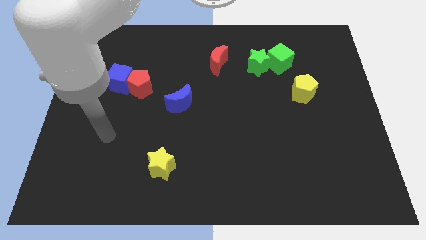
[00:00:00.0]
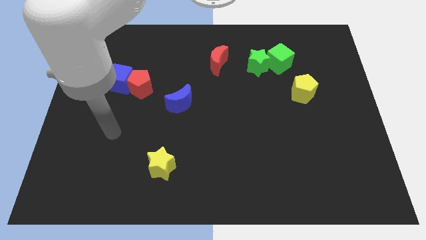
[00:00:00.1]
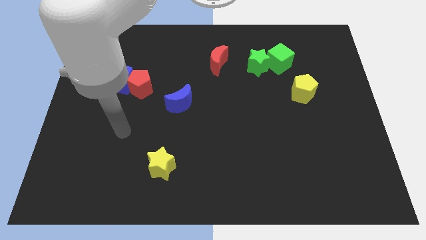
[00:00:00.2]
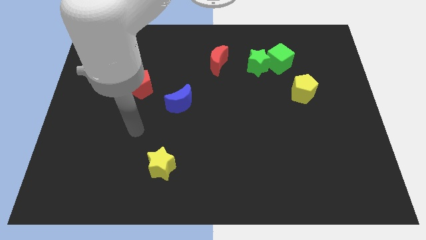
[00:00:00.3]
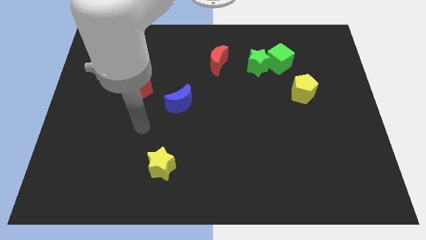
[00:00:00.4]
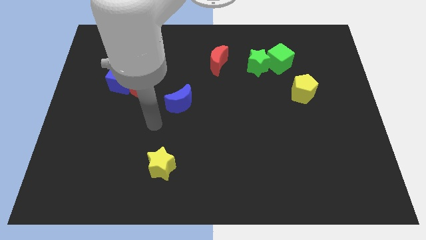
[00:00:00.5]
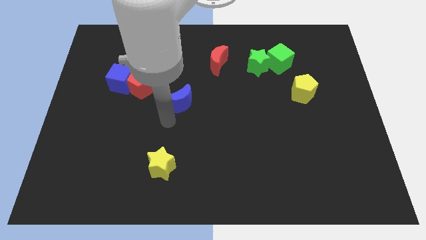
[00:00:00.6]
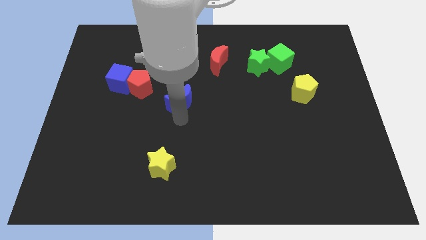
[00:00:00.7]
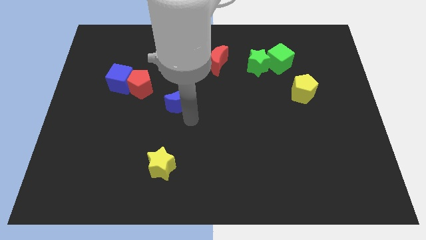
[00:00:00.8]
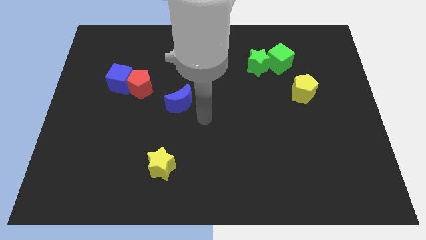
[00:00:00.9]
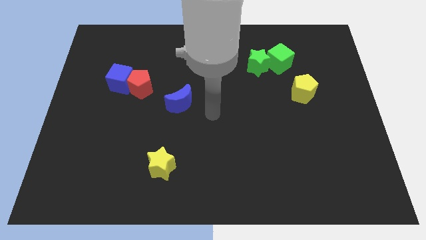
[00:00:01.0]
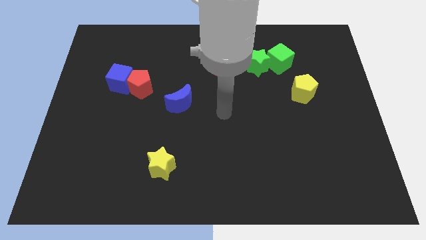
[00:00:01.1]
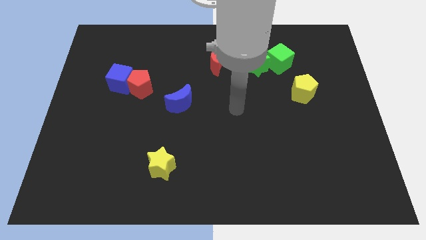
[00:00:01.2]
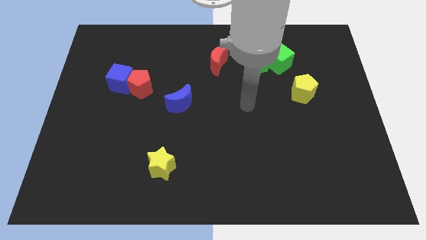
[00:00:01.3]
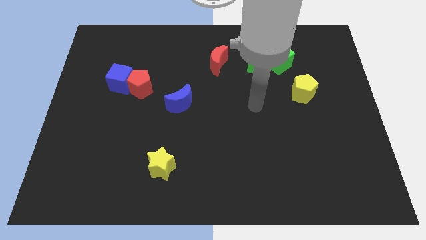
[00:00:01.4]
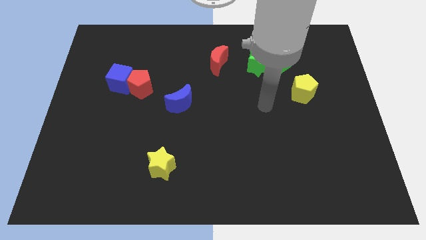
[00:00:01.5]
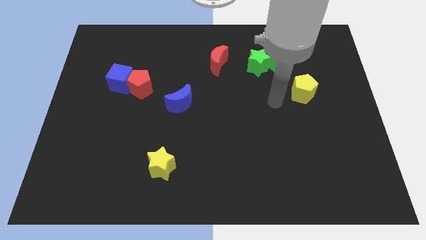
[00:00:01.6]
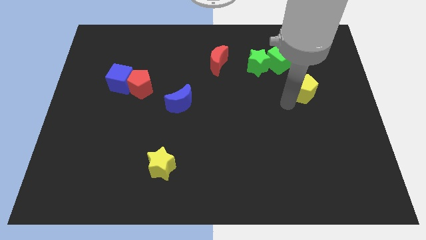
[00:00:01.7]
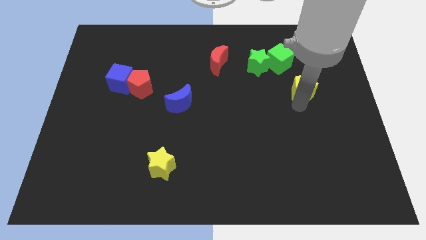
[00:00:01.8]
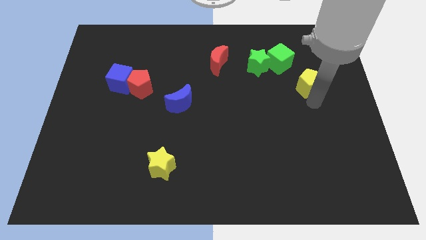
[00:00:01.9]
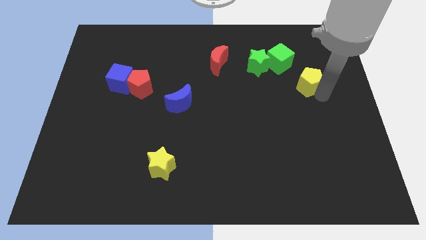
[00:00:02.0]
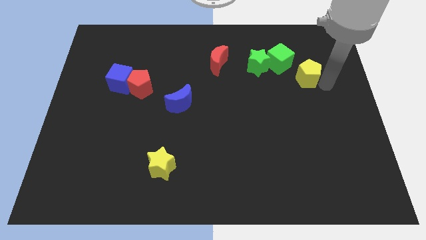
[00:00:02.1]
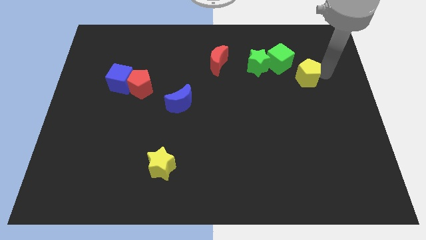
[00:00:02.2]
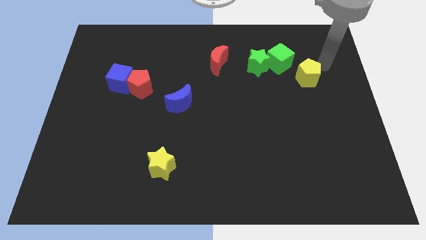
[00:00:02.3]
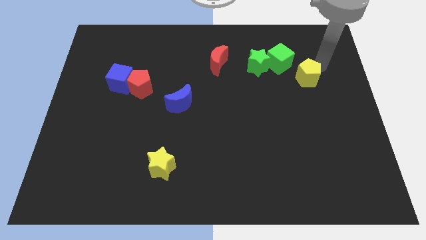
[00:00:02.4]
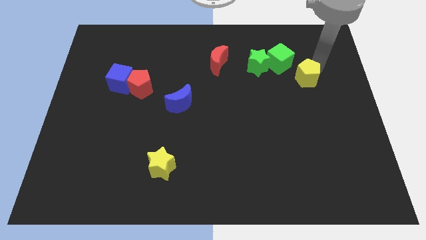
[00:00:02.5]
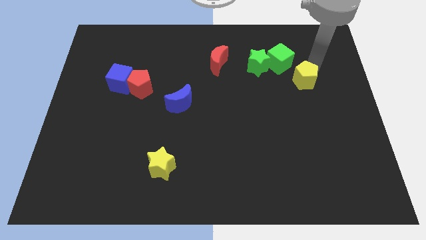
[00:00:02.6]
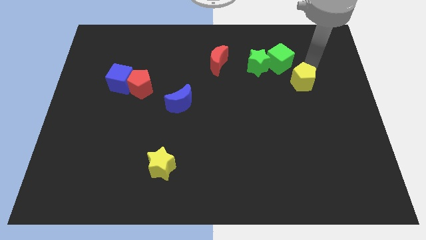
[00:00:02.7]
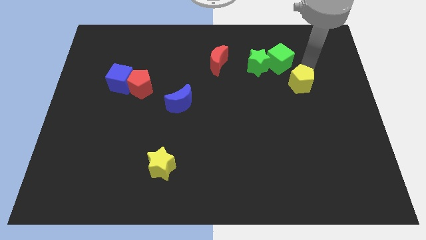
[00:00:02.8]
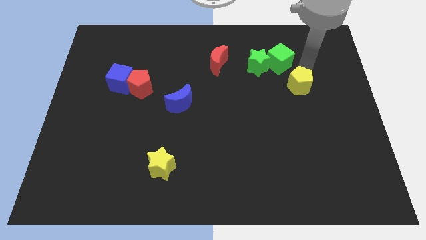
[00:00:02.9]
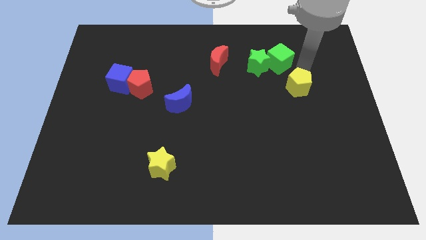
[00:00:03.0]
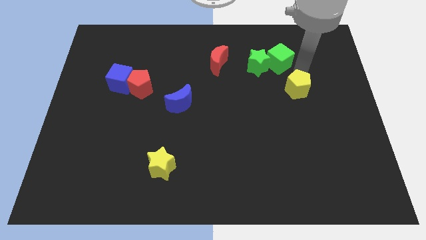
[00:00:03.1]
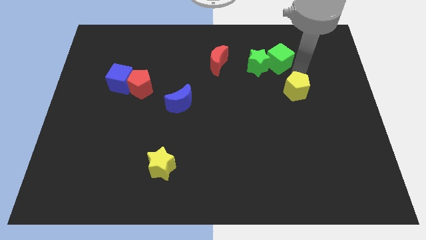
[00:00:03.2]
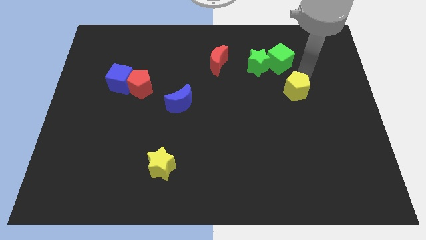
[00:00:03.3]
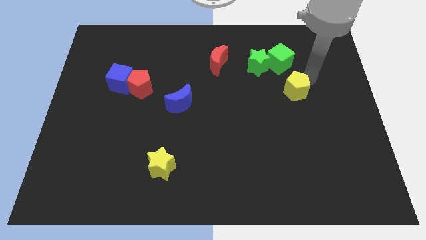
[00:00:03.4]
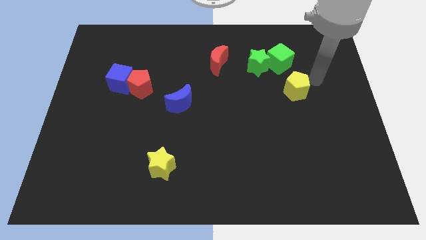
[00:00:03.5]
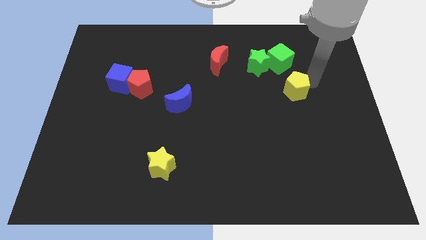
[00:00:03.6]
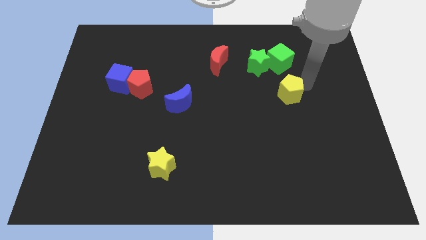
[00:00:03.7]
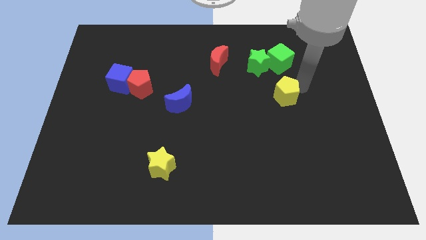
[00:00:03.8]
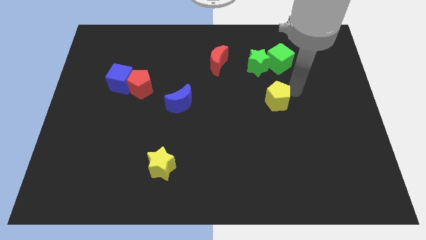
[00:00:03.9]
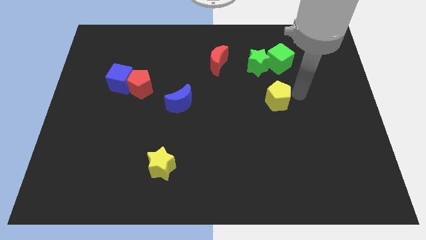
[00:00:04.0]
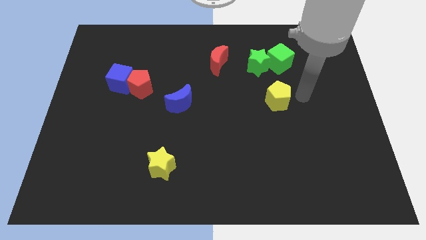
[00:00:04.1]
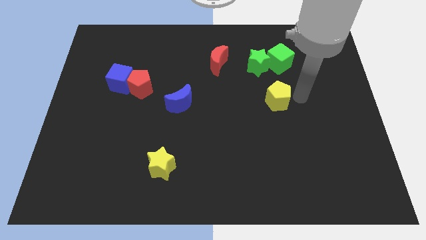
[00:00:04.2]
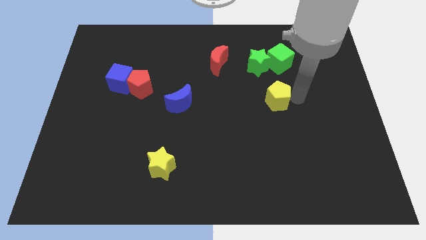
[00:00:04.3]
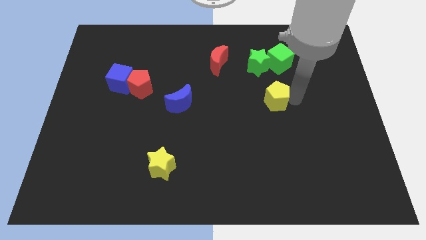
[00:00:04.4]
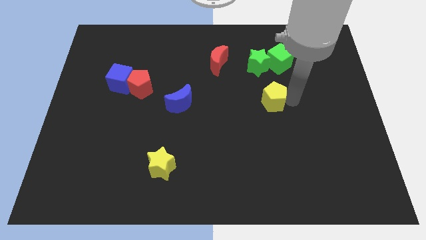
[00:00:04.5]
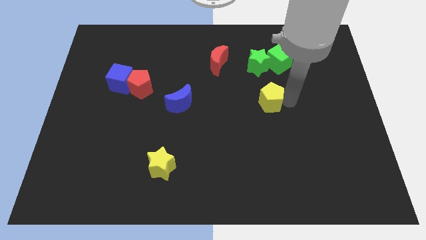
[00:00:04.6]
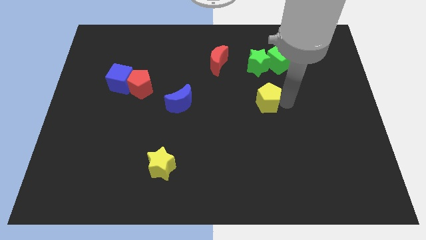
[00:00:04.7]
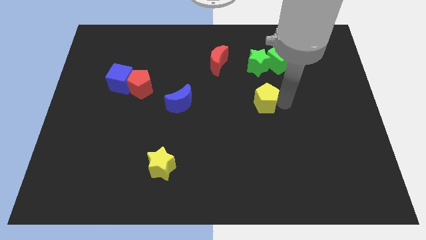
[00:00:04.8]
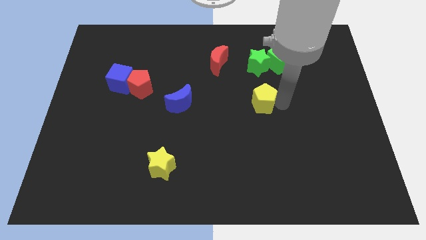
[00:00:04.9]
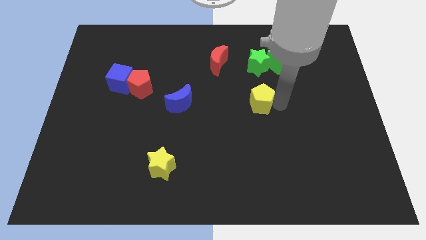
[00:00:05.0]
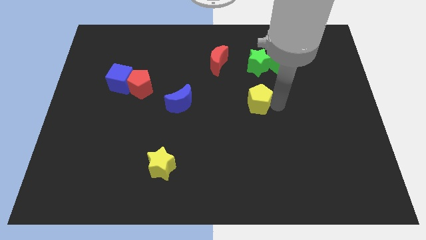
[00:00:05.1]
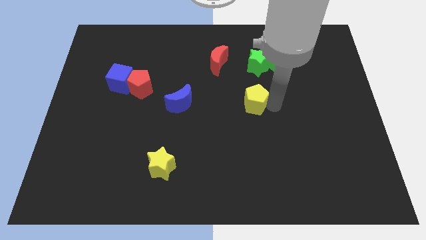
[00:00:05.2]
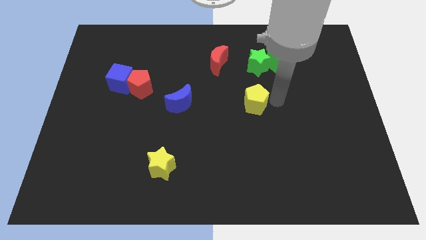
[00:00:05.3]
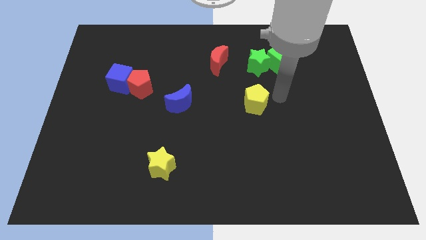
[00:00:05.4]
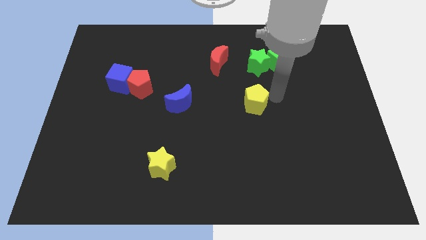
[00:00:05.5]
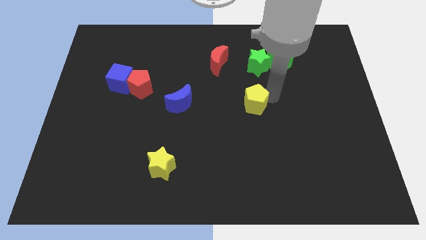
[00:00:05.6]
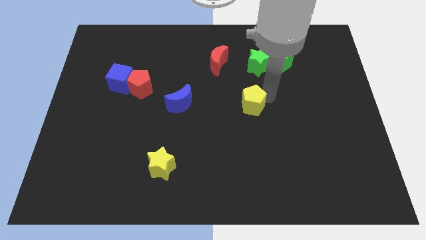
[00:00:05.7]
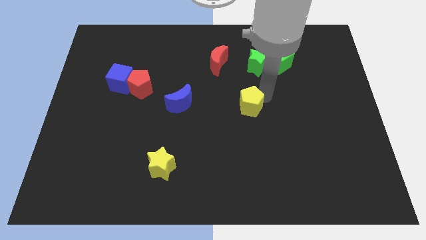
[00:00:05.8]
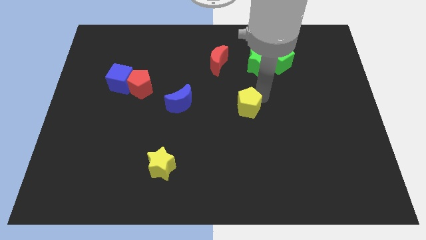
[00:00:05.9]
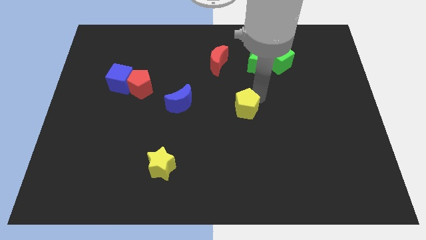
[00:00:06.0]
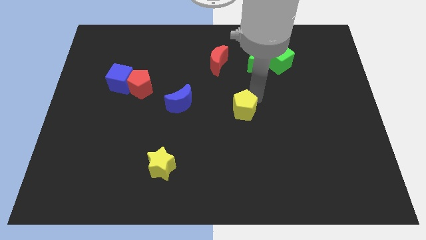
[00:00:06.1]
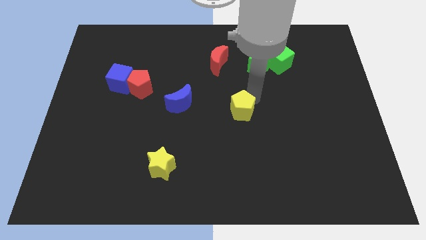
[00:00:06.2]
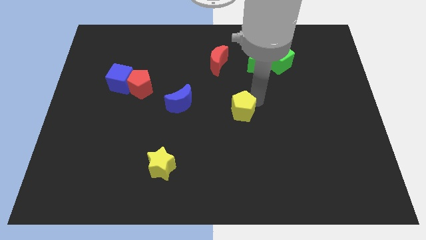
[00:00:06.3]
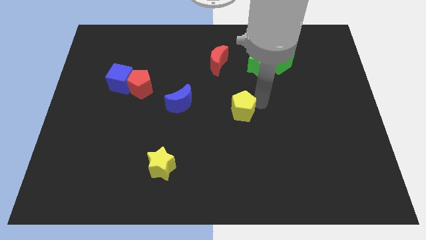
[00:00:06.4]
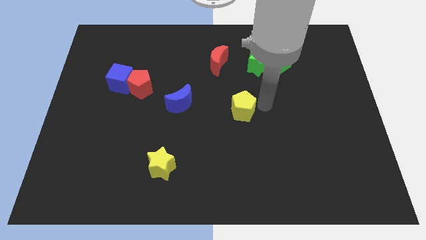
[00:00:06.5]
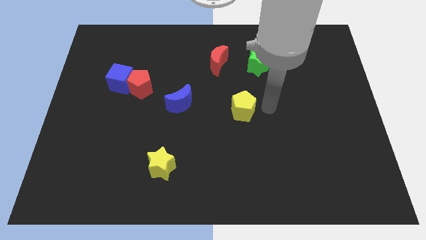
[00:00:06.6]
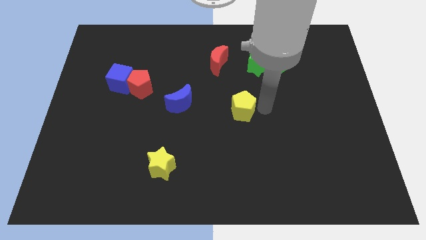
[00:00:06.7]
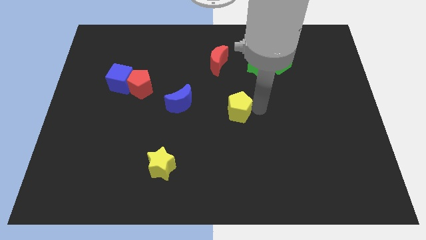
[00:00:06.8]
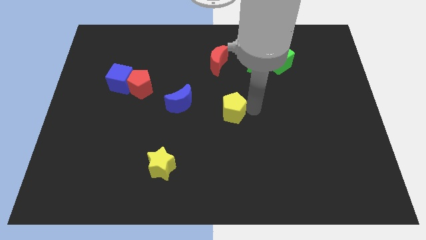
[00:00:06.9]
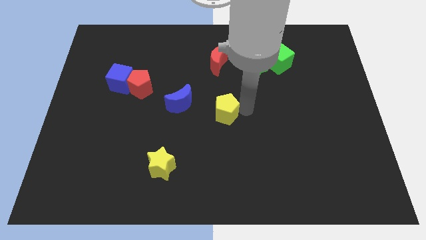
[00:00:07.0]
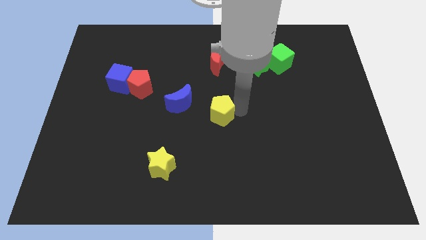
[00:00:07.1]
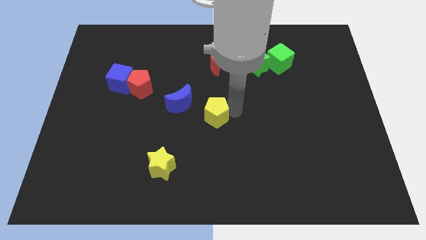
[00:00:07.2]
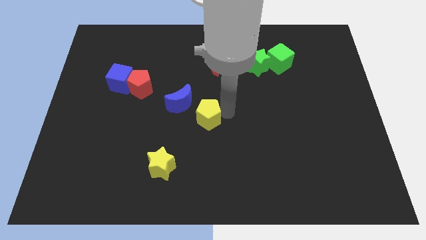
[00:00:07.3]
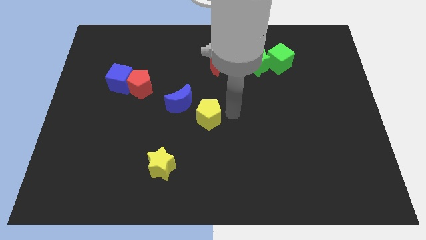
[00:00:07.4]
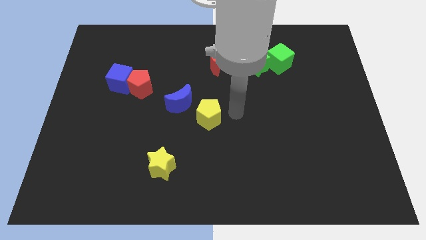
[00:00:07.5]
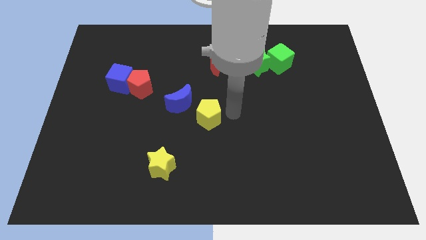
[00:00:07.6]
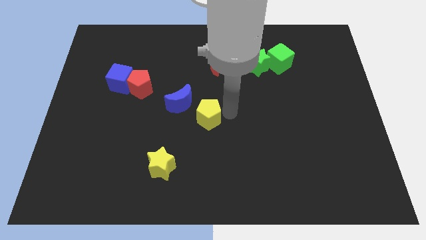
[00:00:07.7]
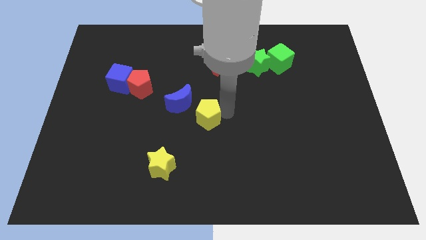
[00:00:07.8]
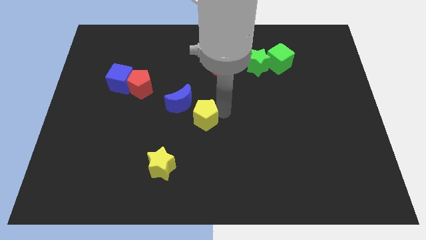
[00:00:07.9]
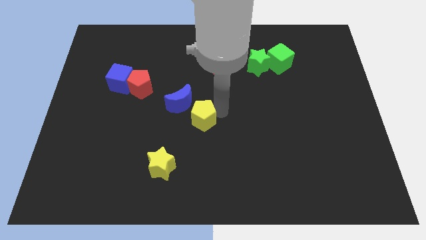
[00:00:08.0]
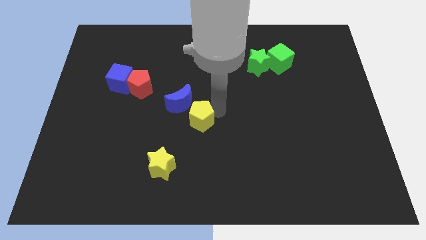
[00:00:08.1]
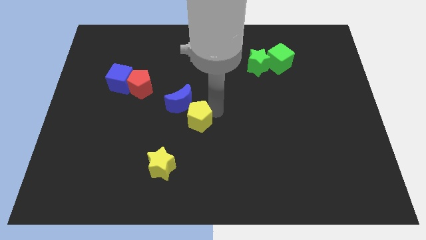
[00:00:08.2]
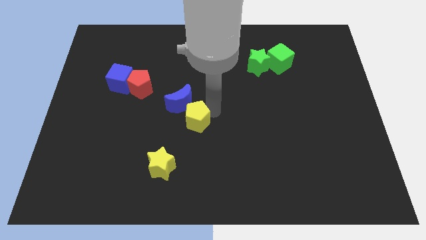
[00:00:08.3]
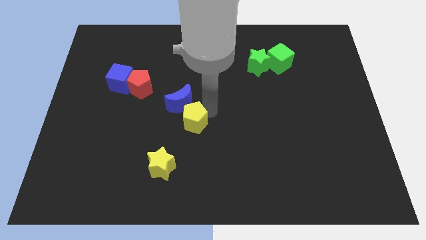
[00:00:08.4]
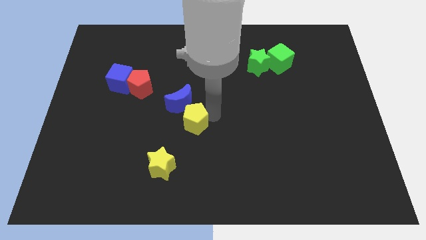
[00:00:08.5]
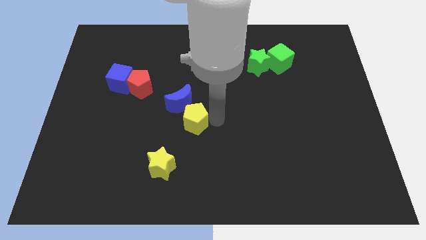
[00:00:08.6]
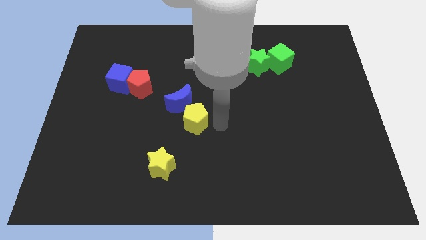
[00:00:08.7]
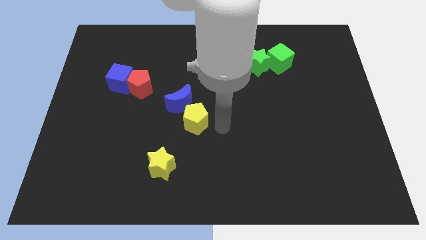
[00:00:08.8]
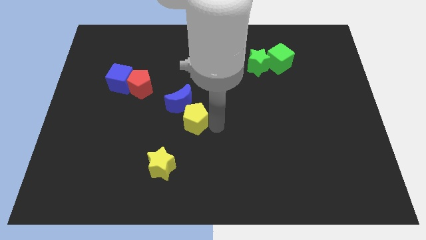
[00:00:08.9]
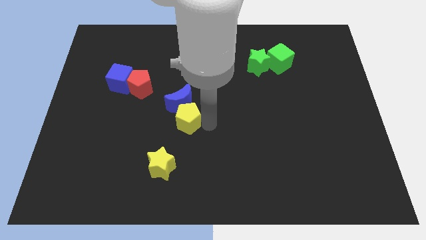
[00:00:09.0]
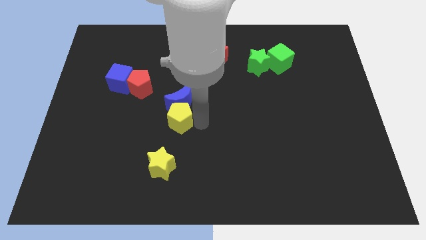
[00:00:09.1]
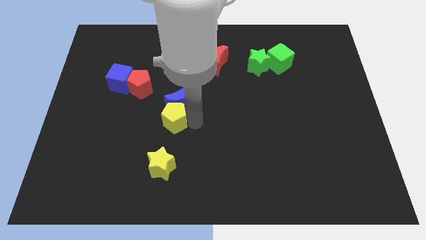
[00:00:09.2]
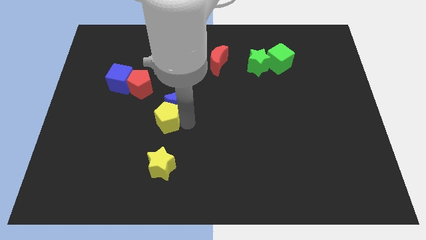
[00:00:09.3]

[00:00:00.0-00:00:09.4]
slide the yellow pentagon diagonally down and to the right of the red pentagon
